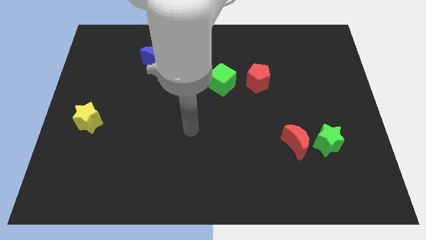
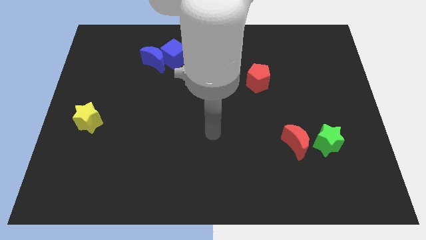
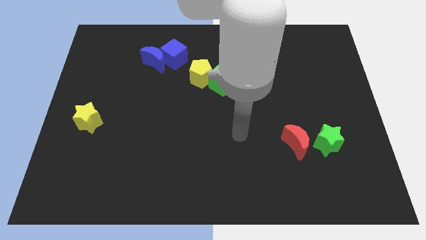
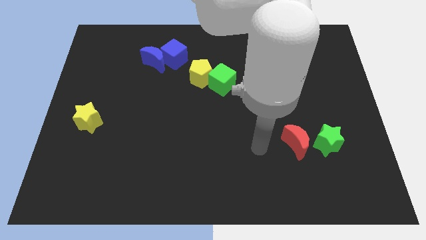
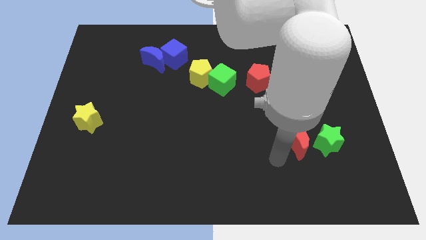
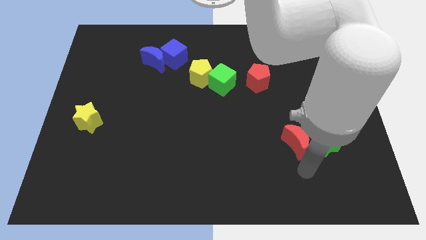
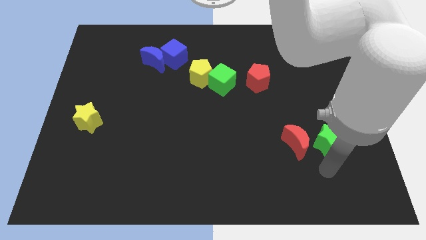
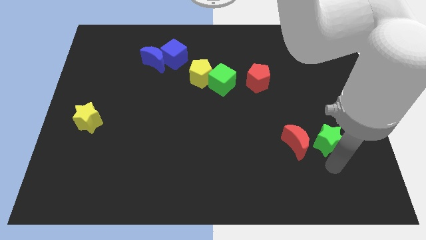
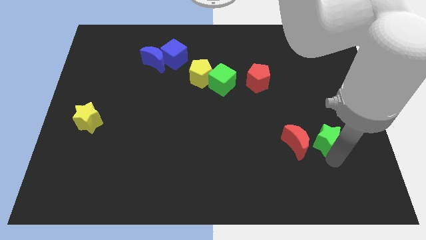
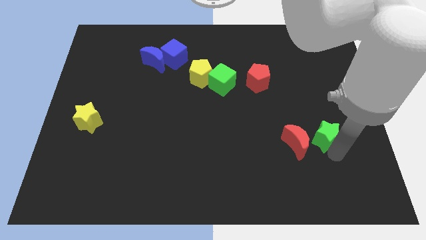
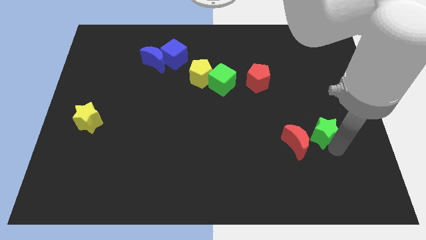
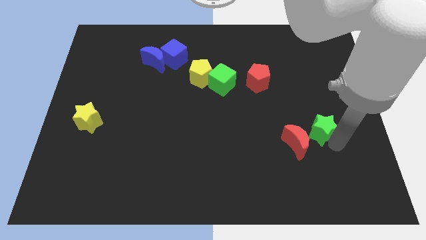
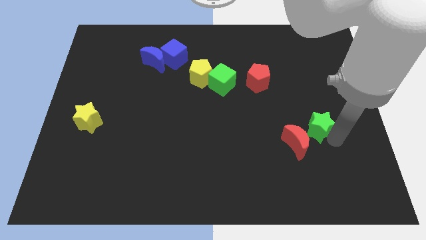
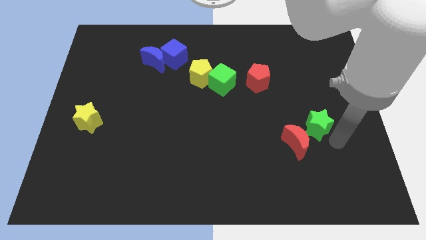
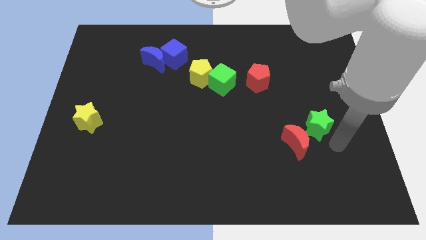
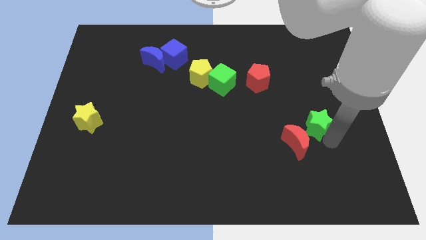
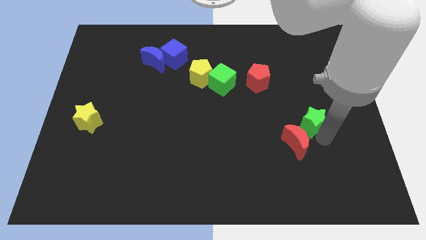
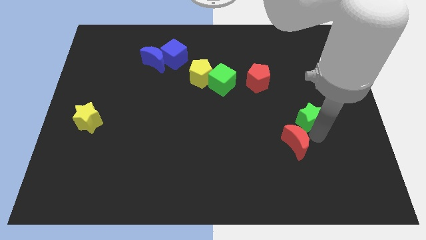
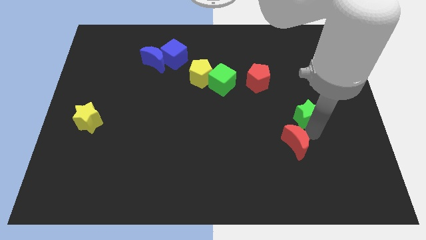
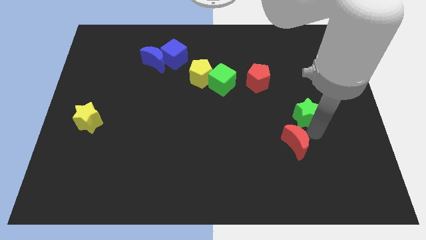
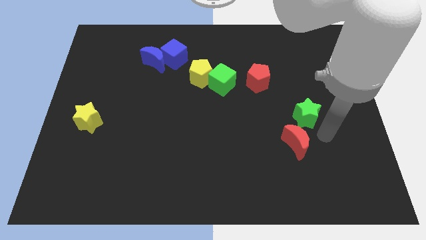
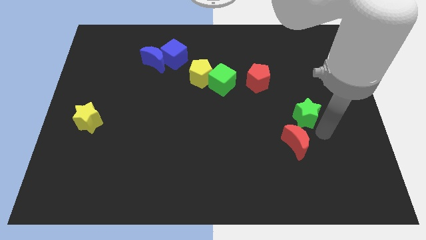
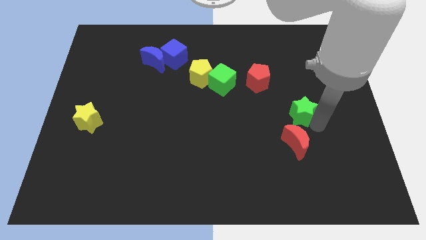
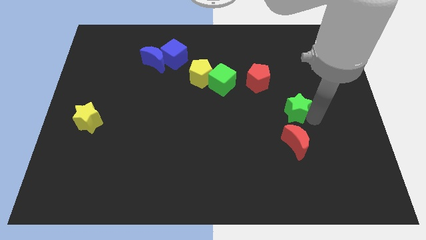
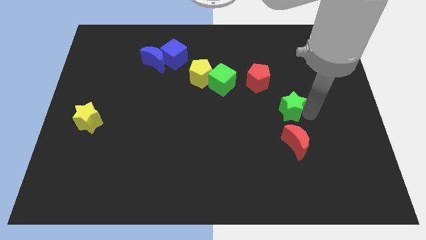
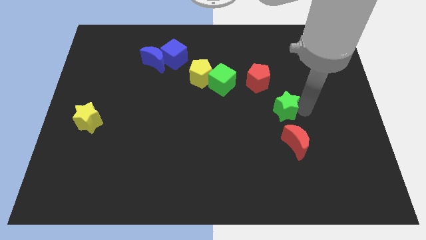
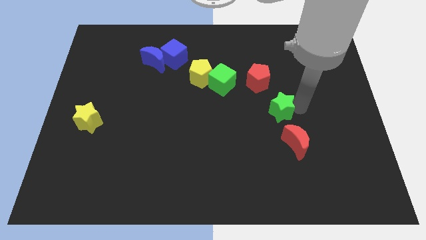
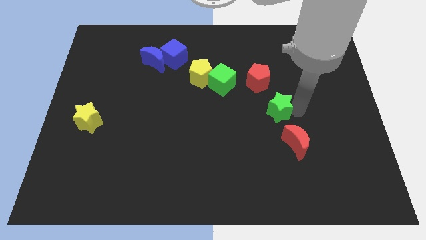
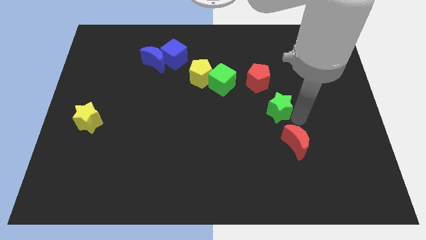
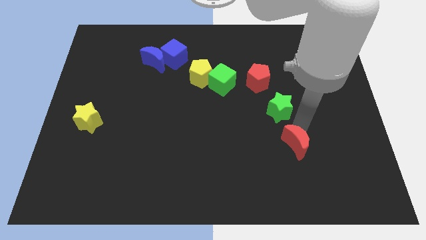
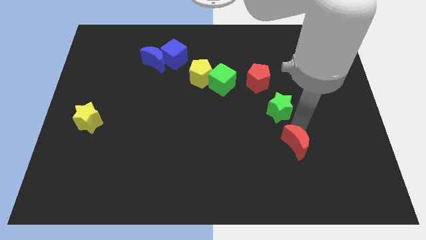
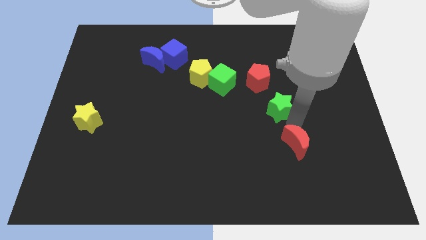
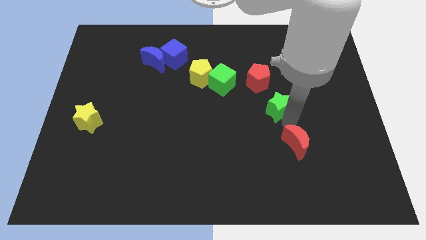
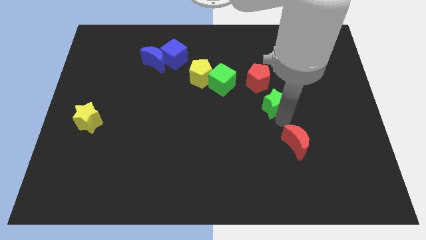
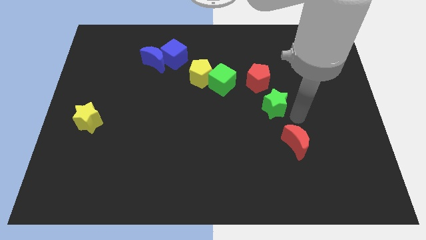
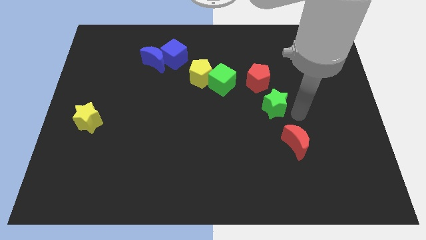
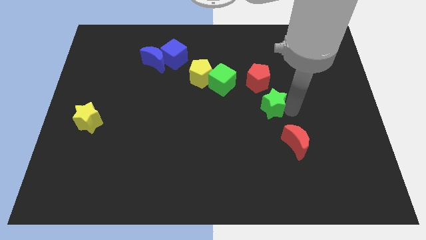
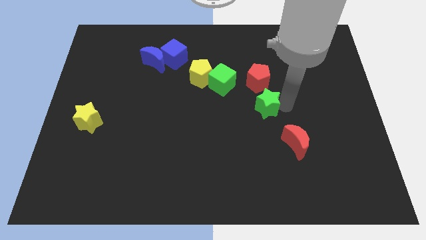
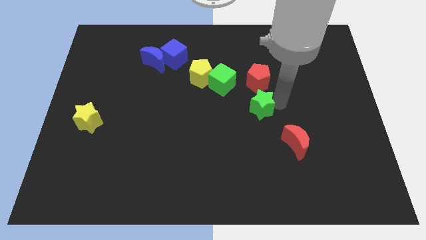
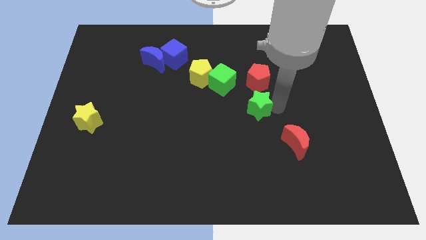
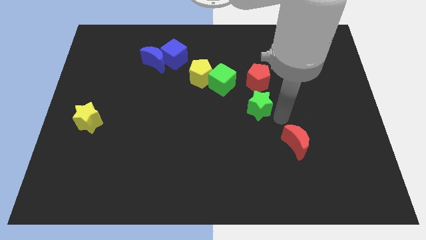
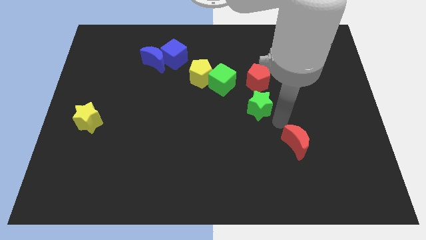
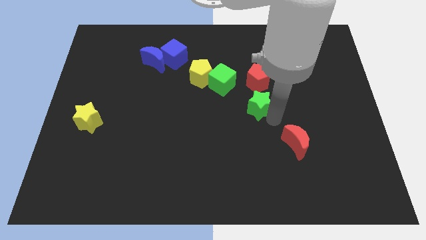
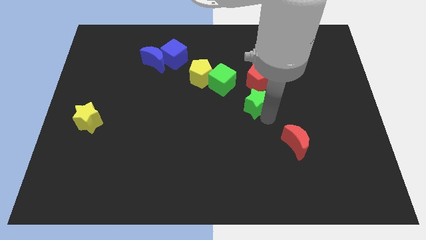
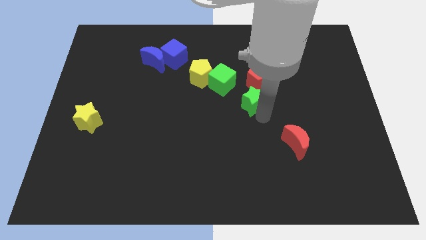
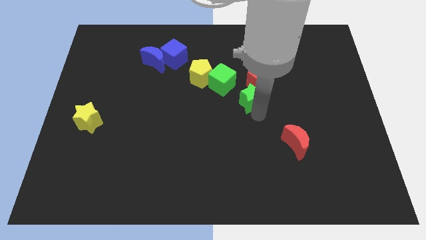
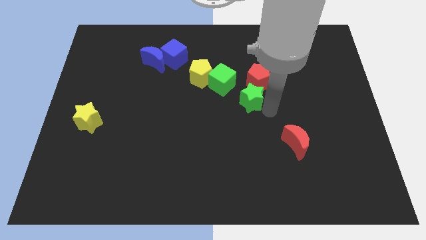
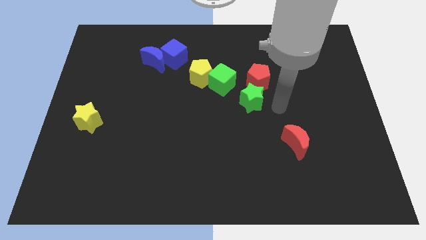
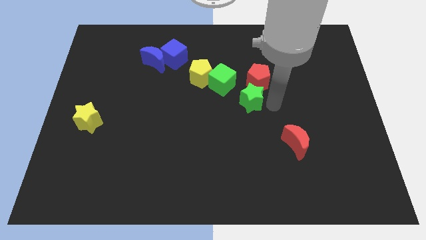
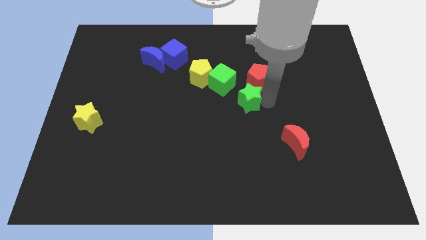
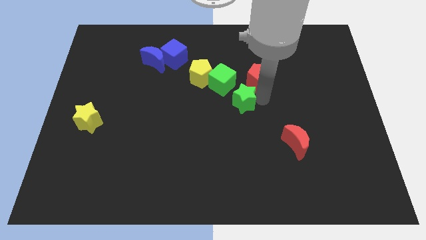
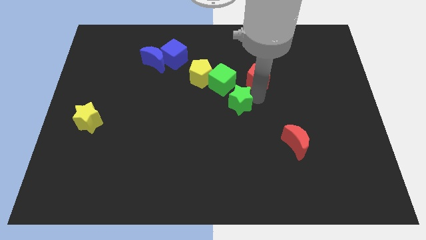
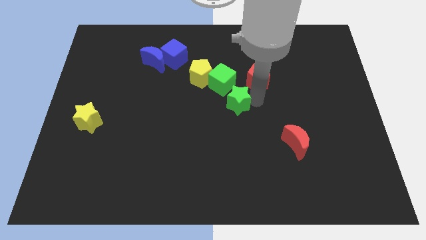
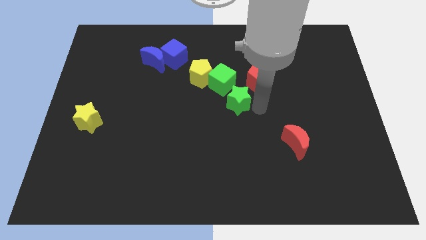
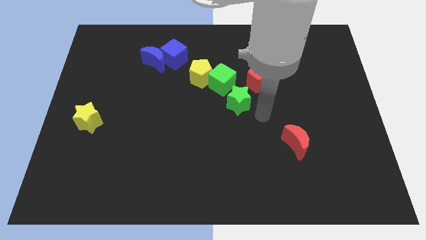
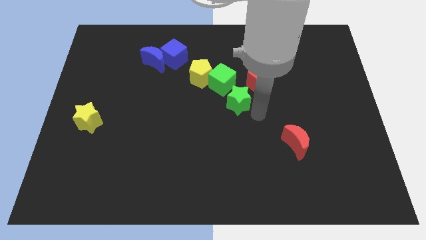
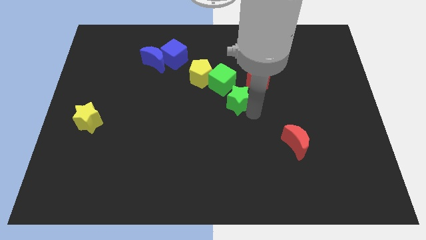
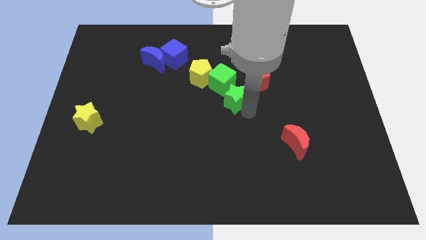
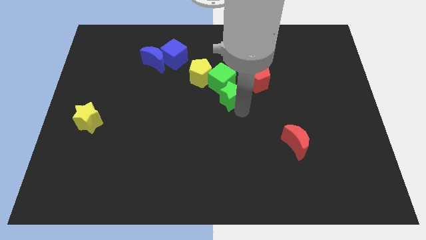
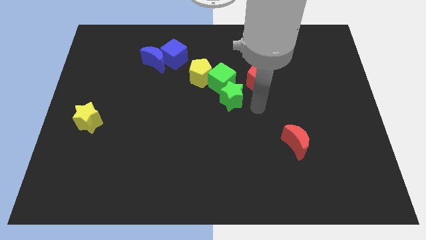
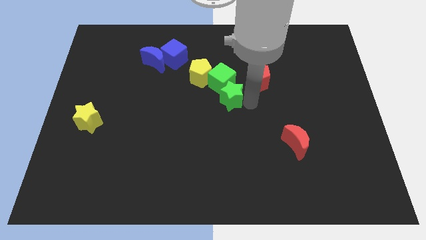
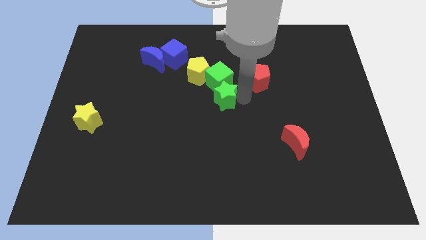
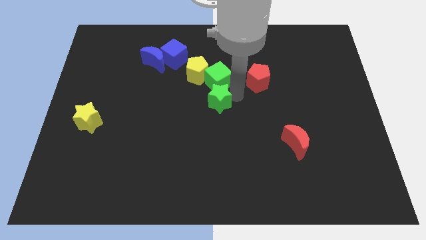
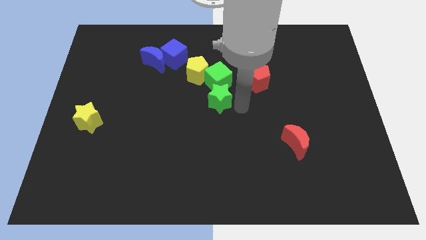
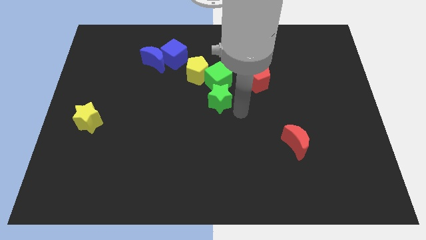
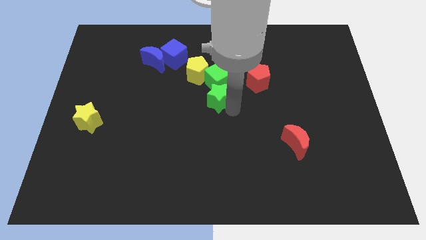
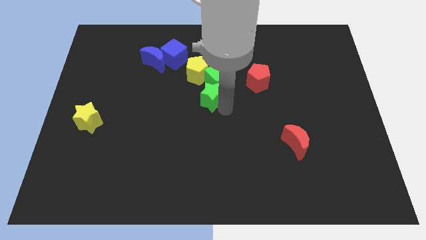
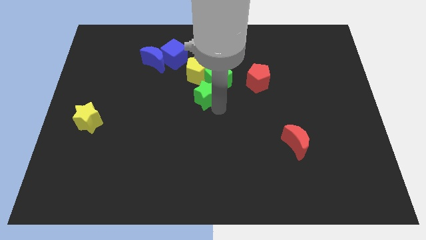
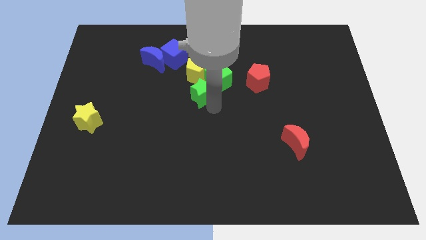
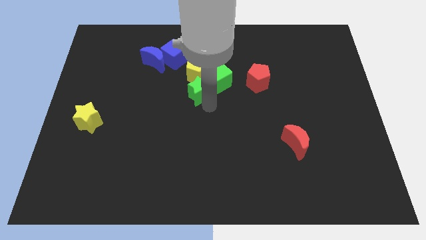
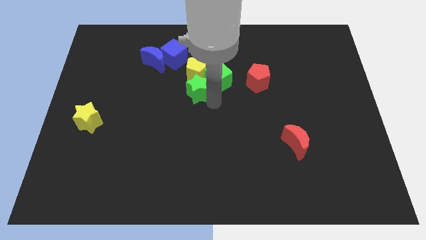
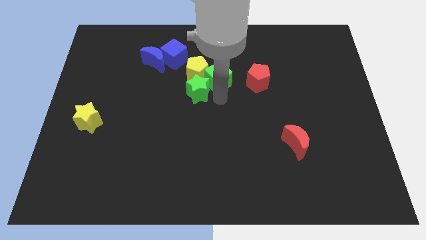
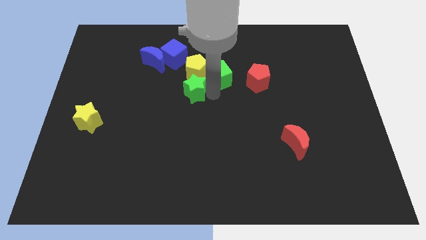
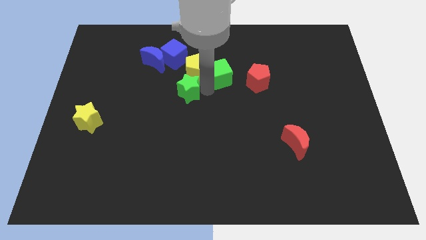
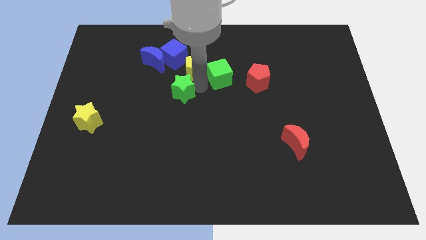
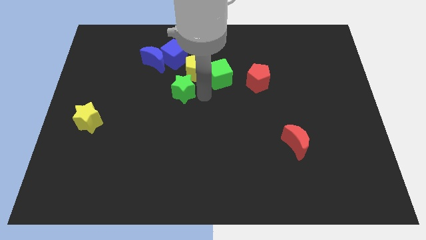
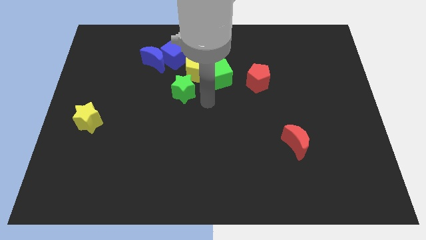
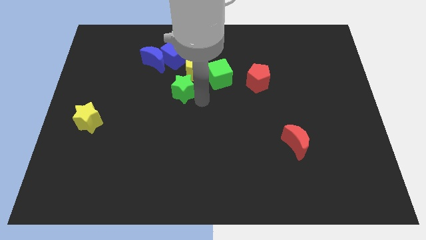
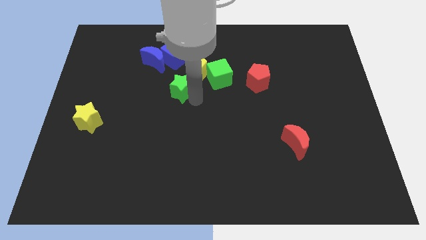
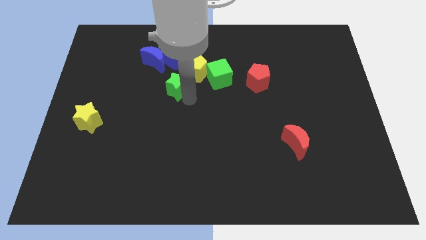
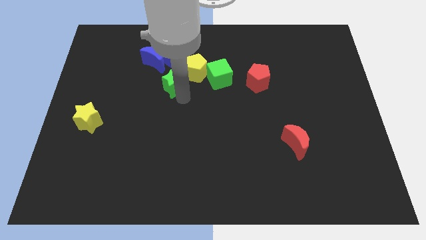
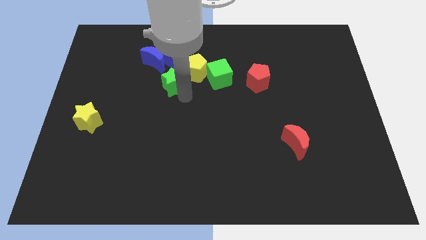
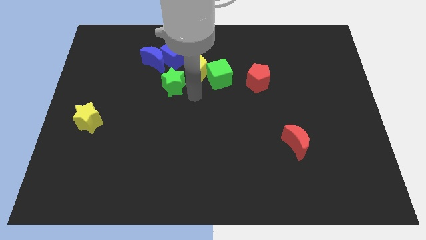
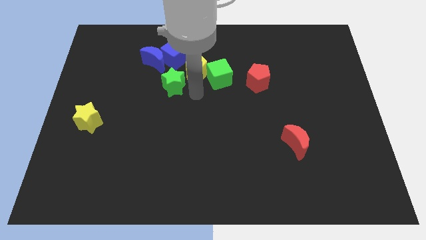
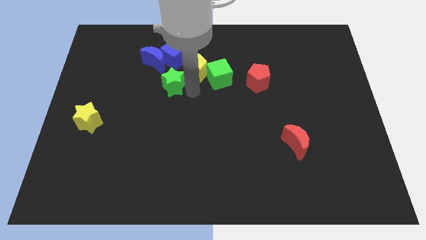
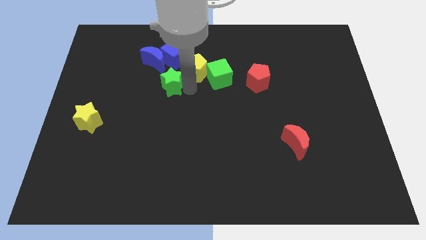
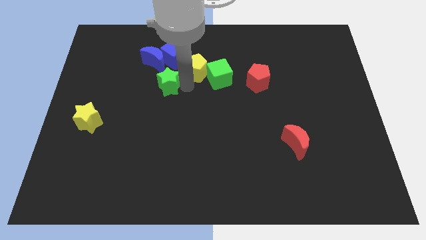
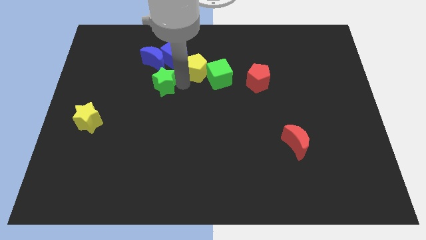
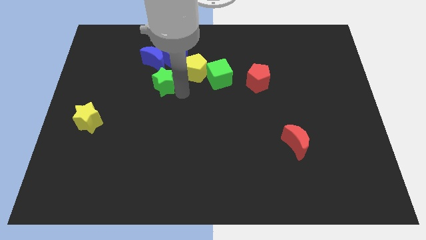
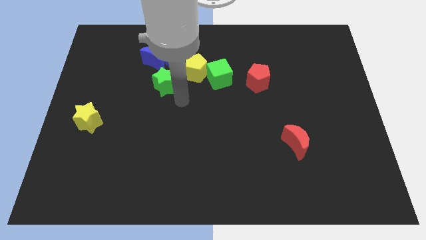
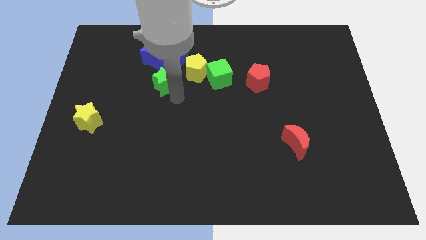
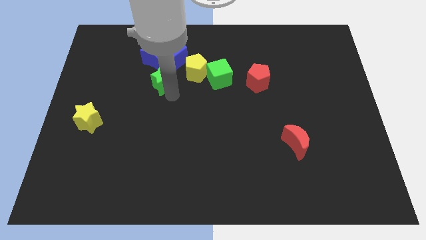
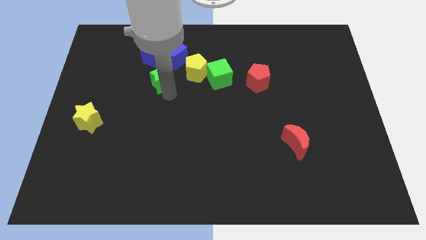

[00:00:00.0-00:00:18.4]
put the green star diagonally down and to the left of the blue cube
